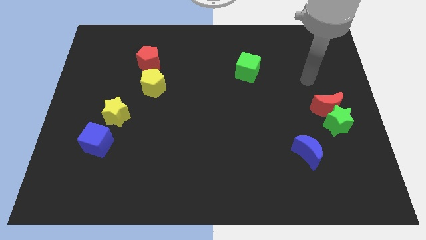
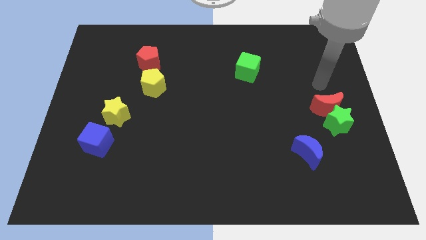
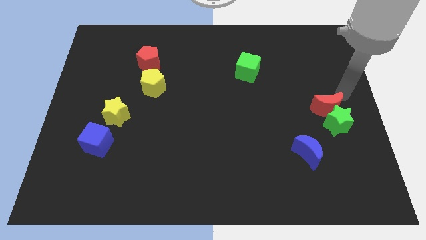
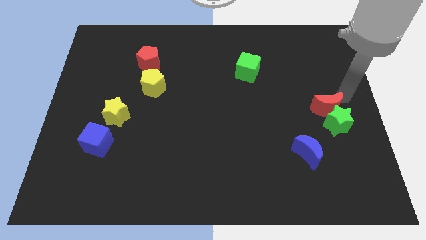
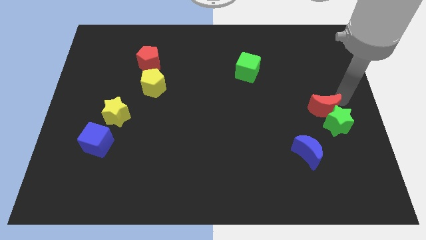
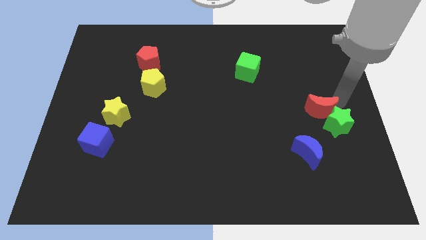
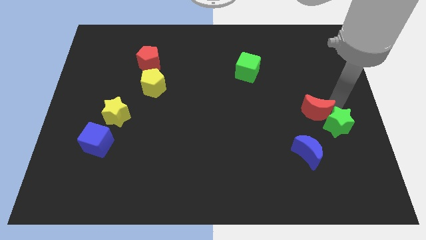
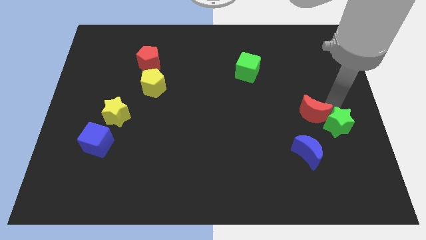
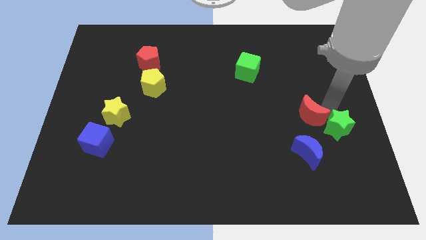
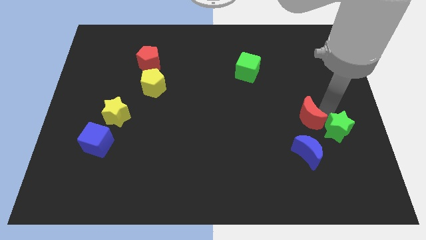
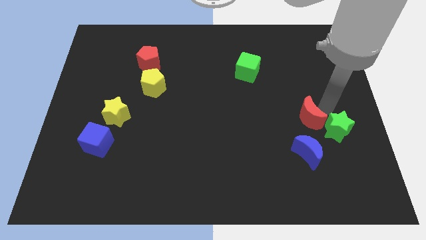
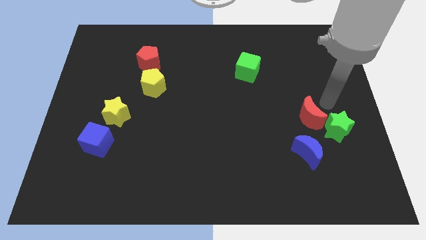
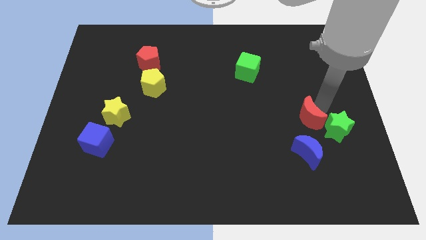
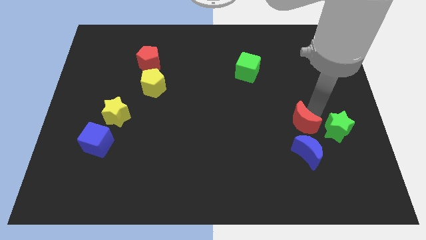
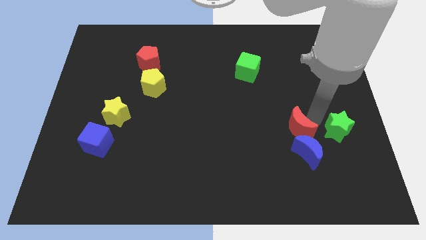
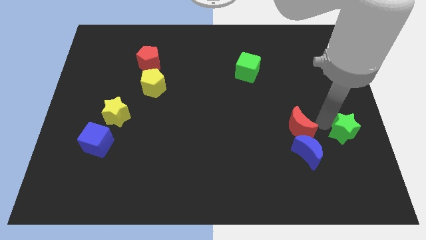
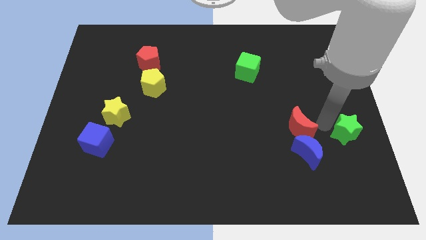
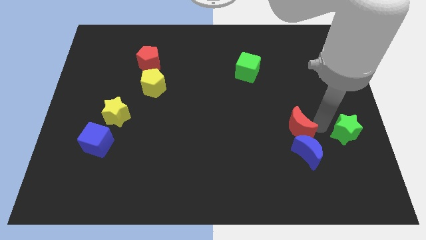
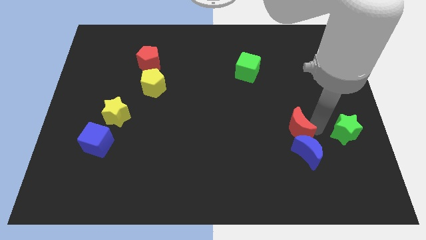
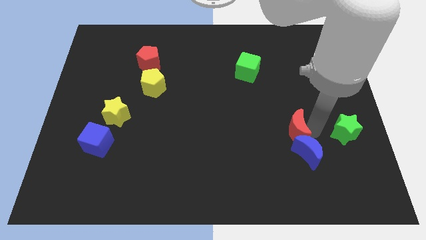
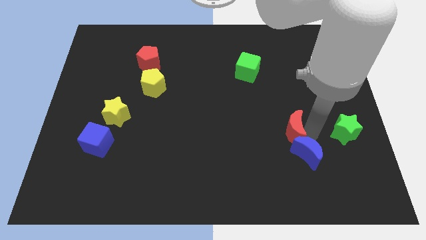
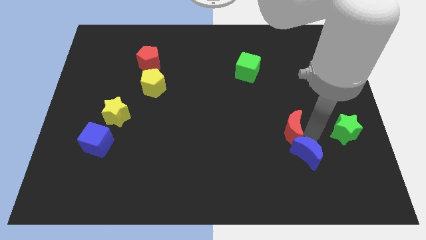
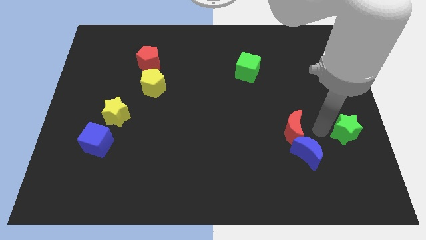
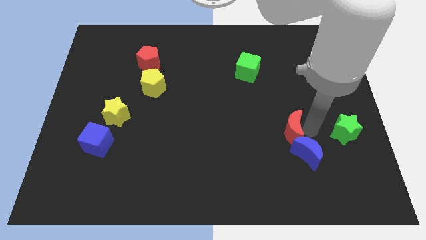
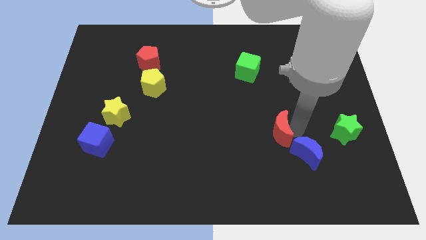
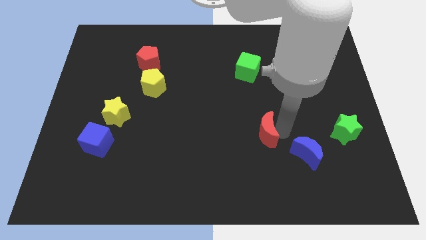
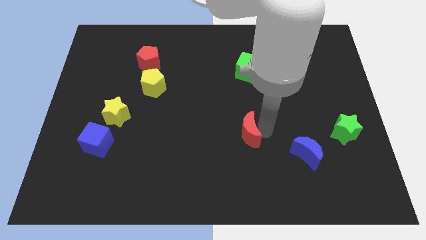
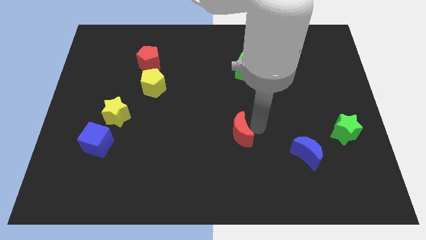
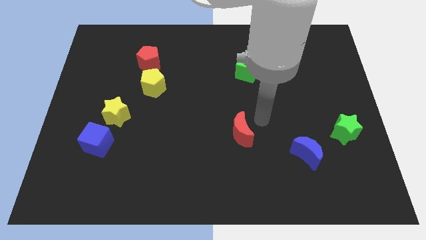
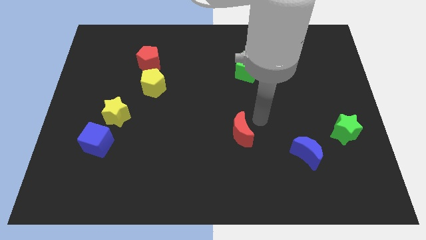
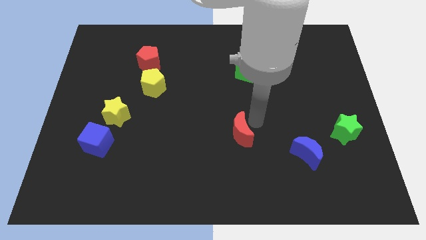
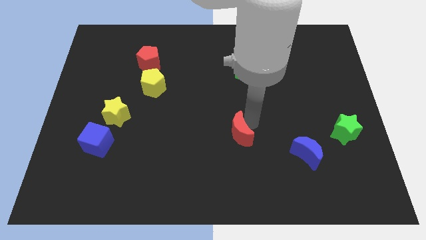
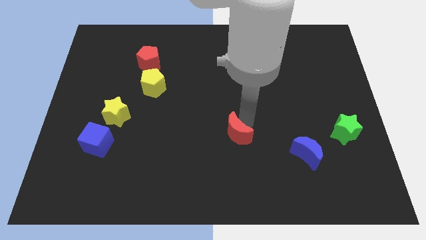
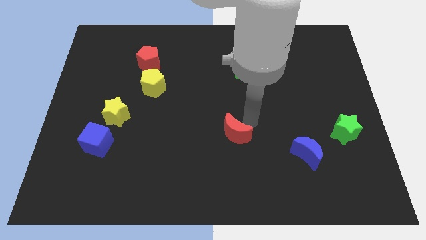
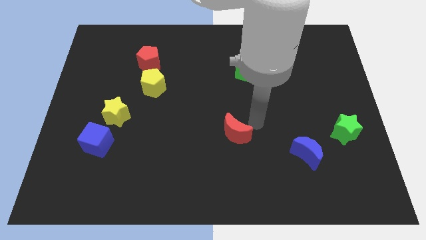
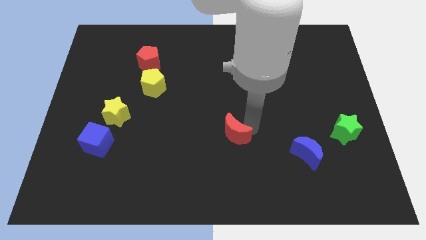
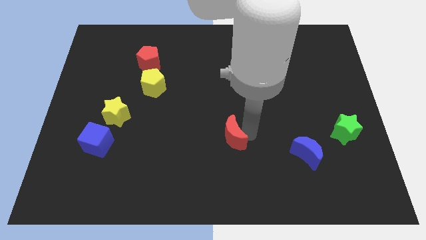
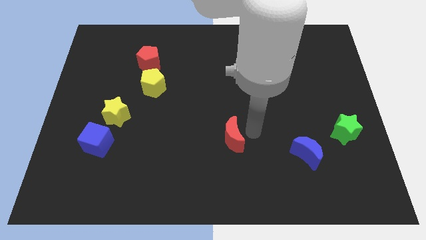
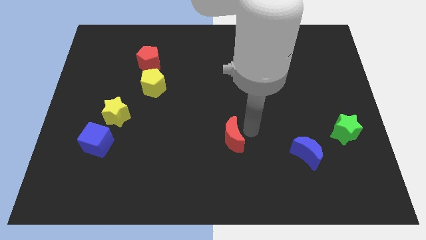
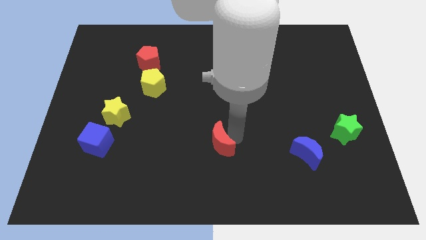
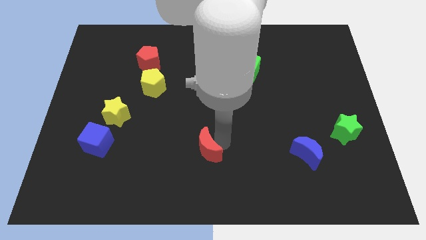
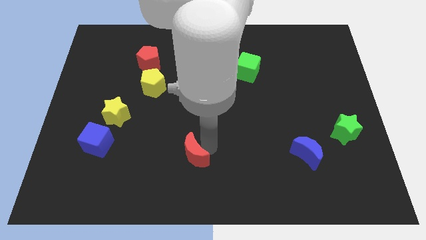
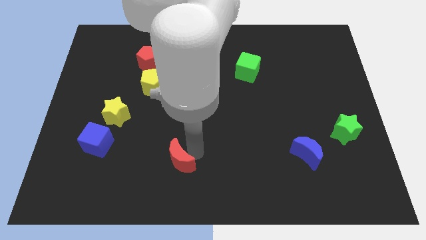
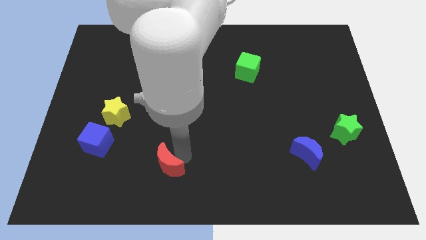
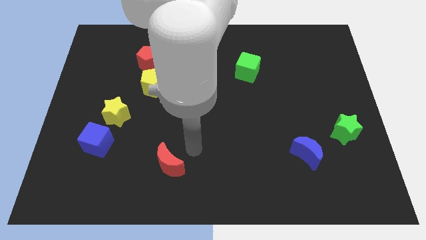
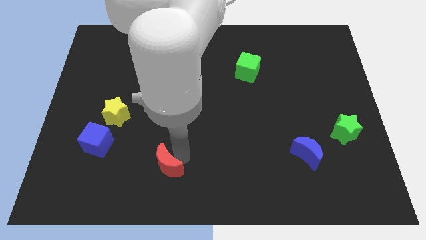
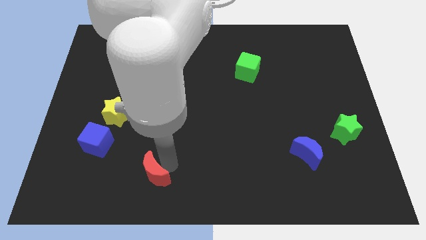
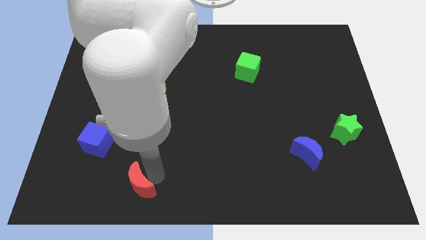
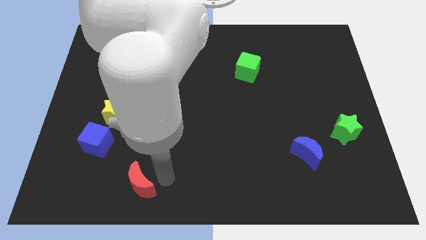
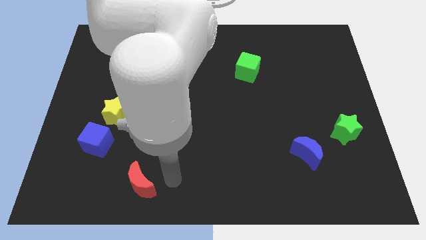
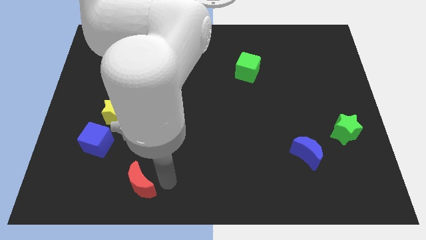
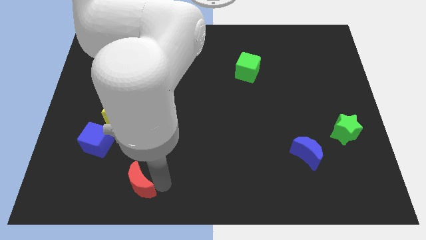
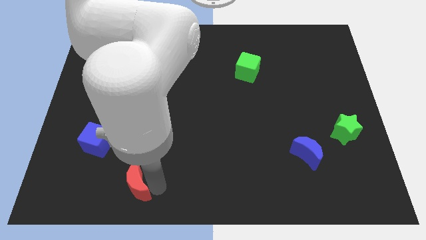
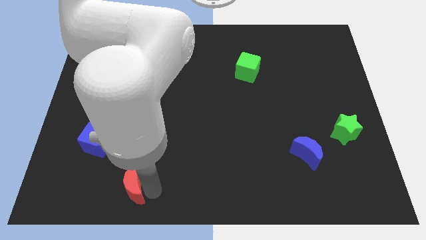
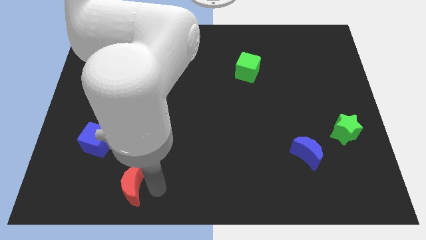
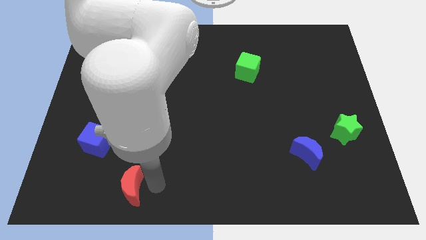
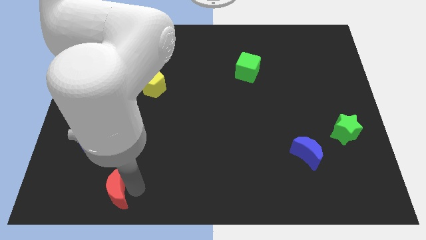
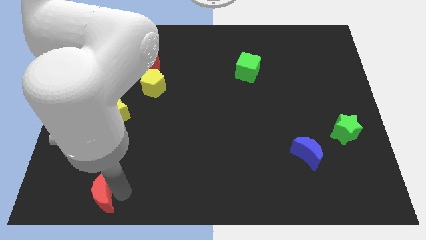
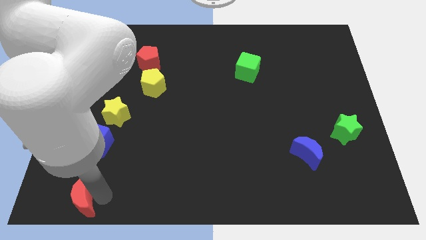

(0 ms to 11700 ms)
push the red moon to the bottom left

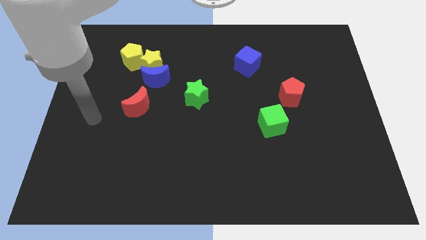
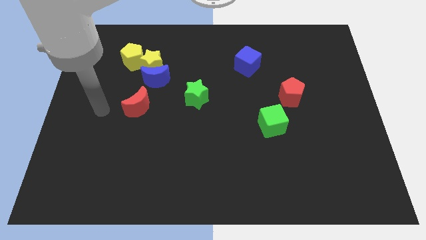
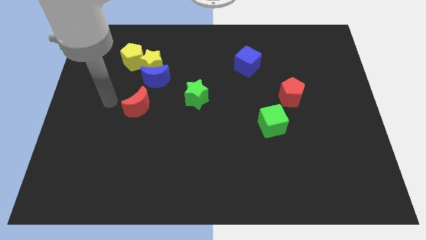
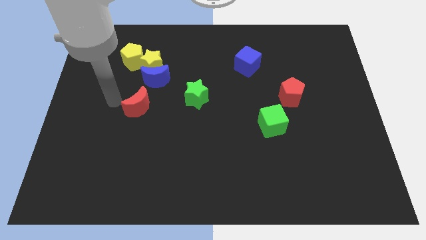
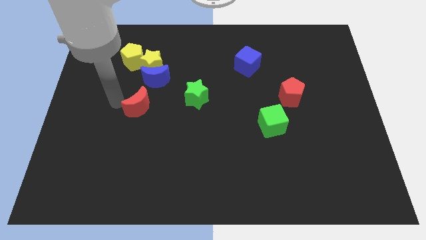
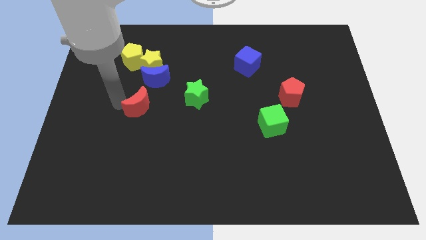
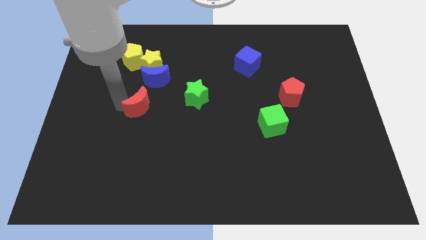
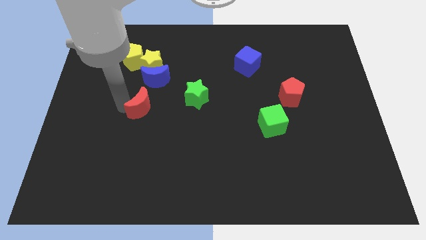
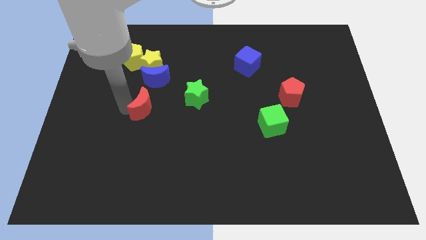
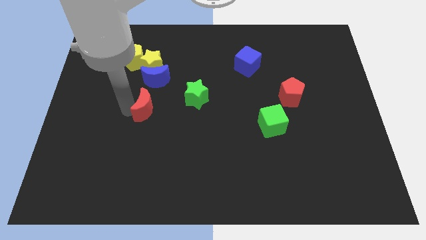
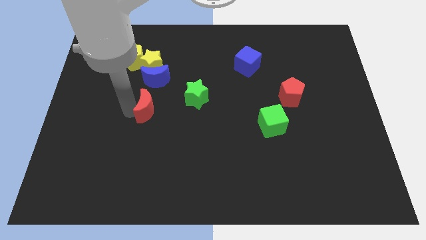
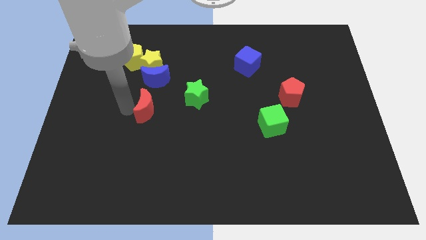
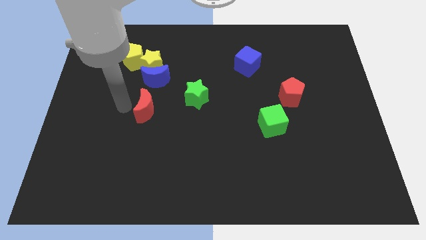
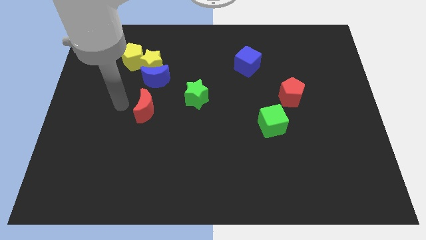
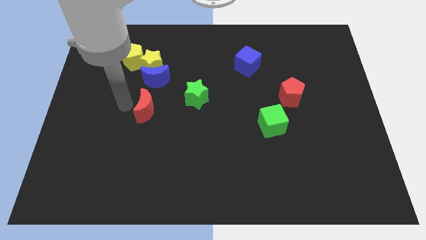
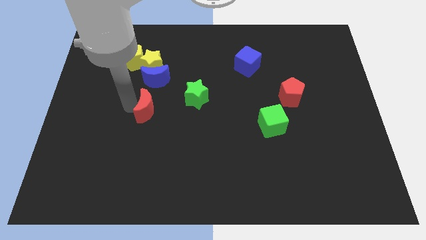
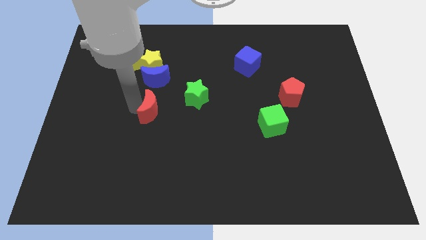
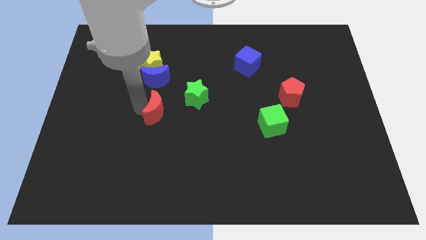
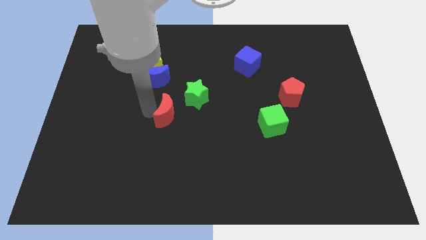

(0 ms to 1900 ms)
move the red moon to the middle of the board
